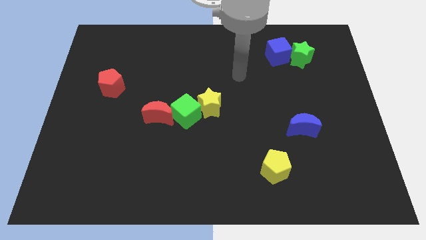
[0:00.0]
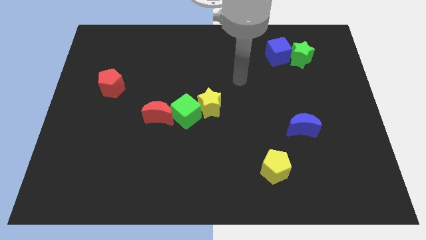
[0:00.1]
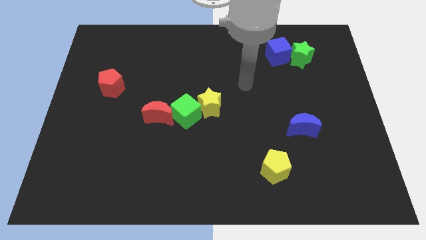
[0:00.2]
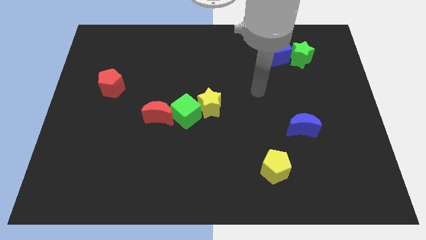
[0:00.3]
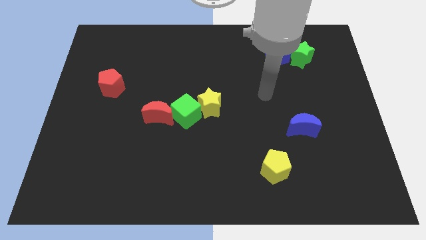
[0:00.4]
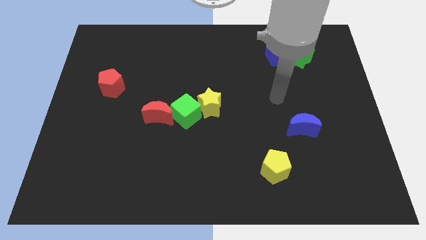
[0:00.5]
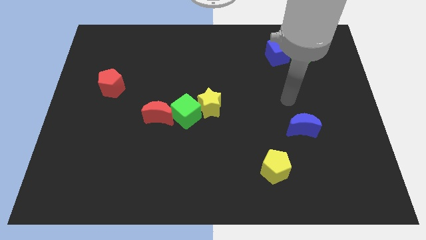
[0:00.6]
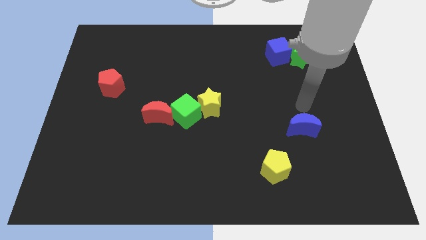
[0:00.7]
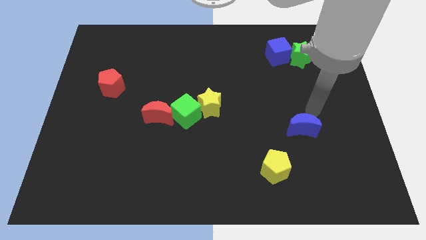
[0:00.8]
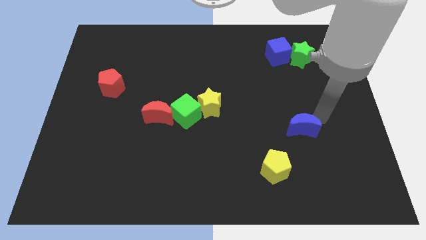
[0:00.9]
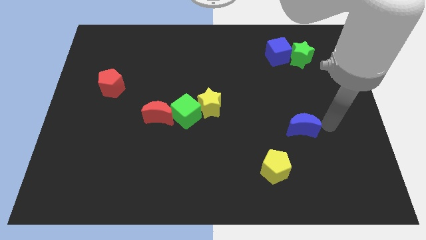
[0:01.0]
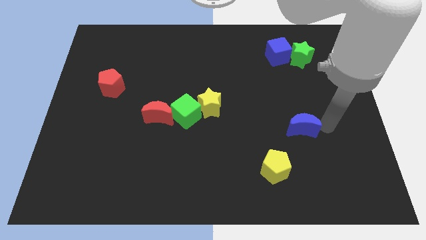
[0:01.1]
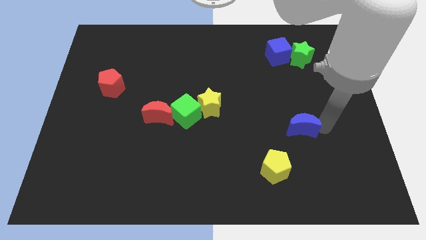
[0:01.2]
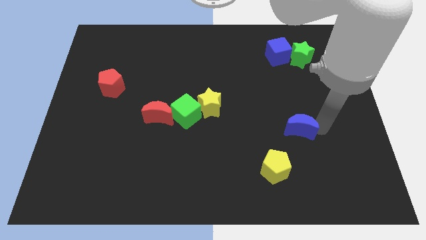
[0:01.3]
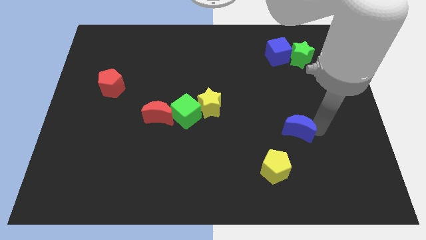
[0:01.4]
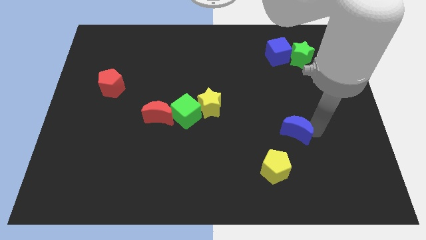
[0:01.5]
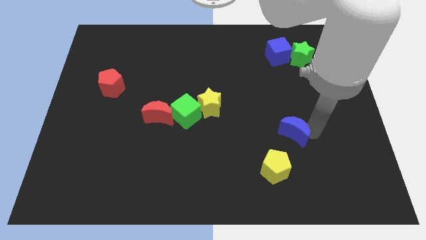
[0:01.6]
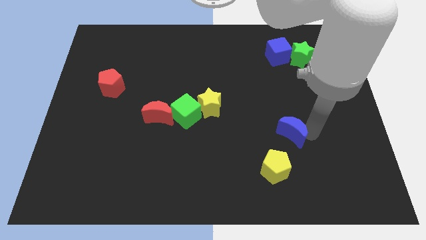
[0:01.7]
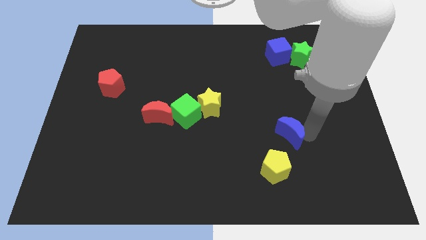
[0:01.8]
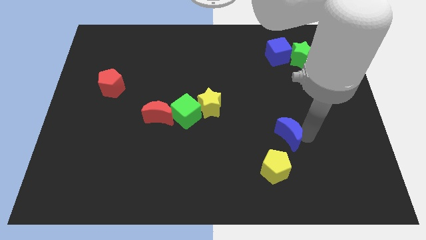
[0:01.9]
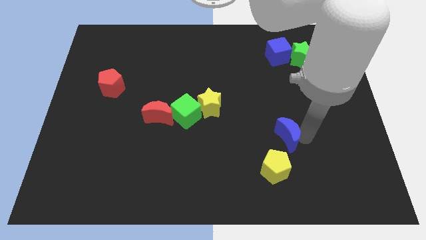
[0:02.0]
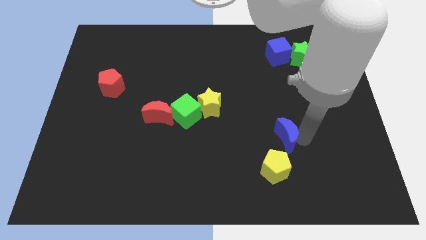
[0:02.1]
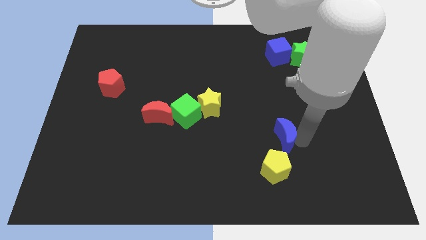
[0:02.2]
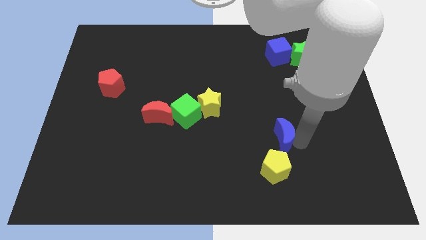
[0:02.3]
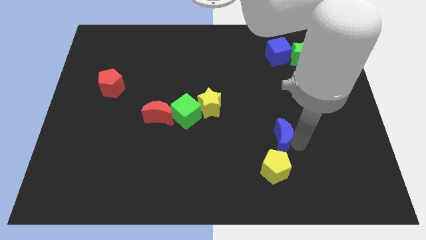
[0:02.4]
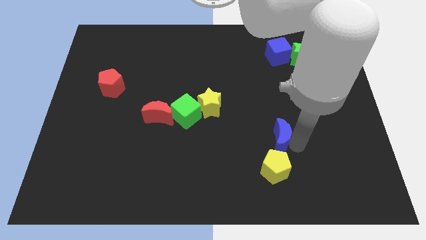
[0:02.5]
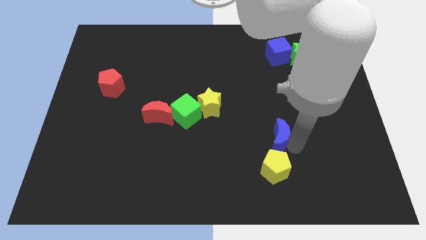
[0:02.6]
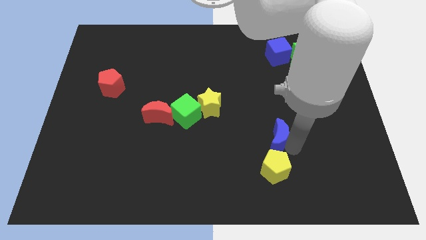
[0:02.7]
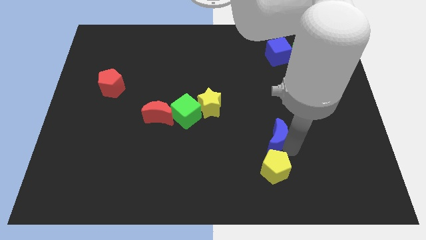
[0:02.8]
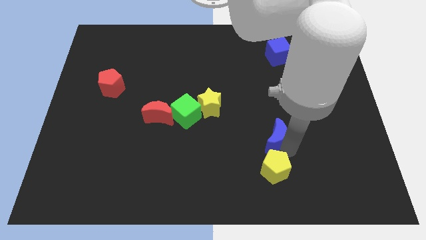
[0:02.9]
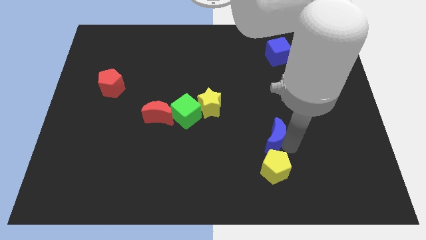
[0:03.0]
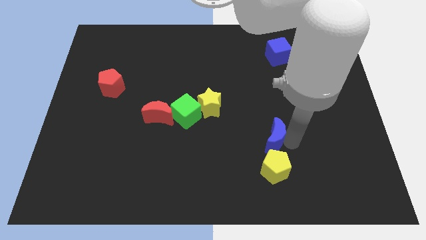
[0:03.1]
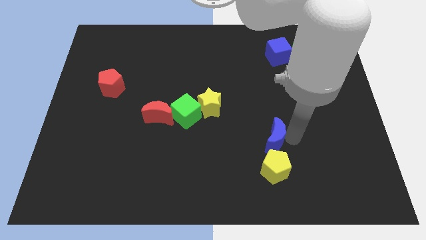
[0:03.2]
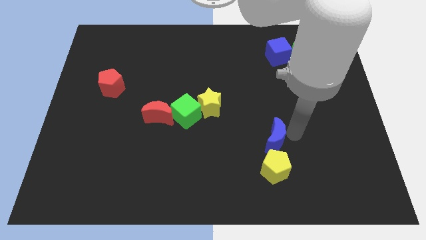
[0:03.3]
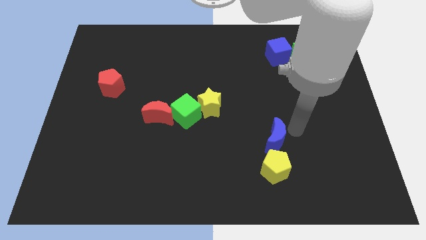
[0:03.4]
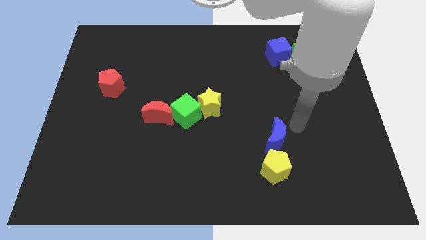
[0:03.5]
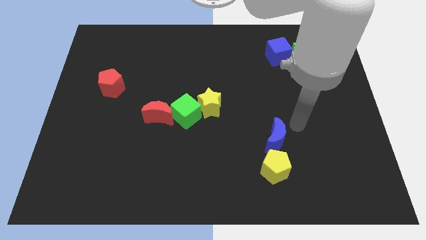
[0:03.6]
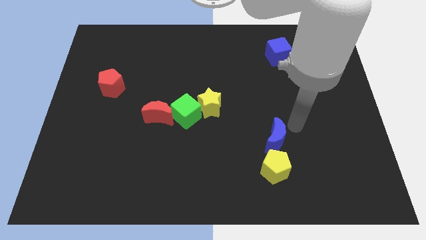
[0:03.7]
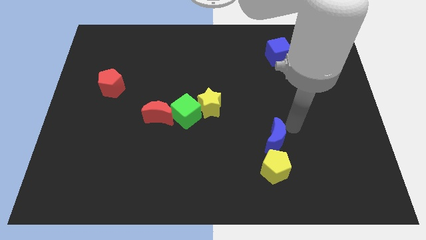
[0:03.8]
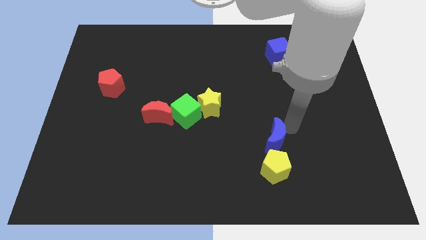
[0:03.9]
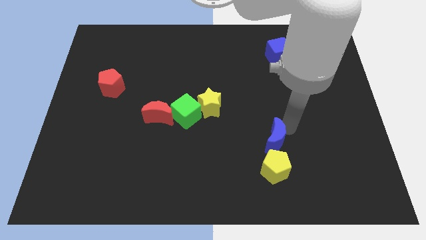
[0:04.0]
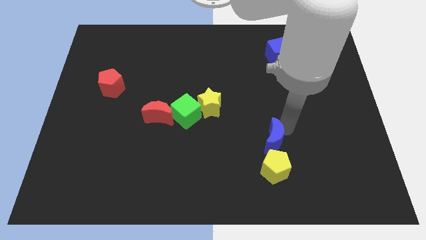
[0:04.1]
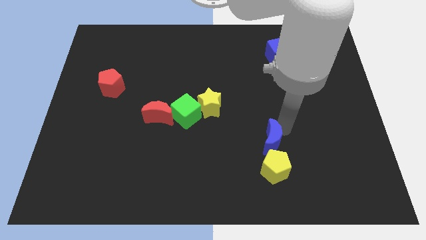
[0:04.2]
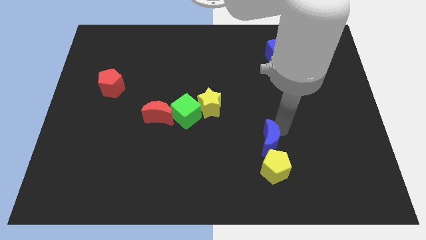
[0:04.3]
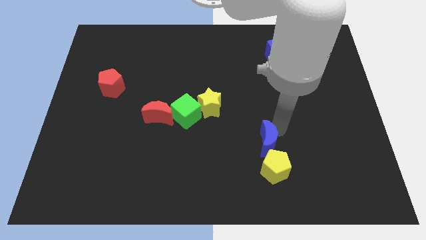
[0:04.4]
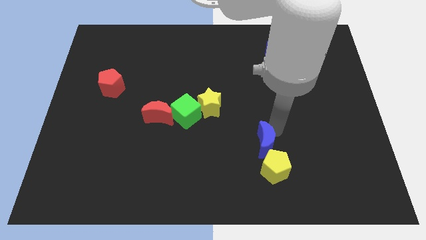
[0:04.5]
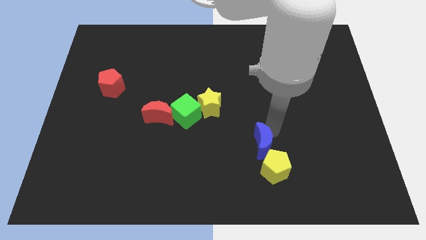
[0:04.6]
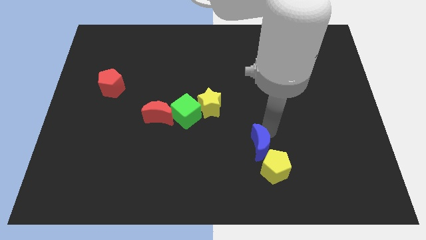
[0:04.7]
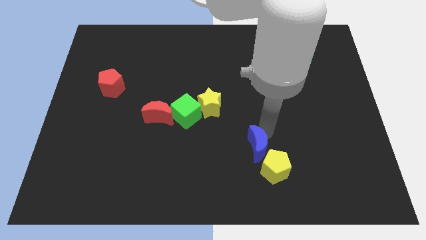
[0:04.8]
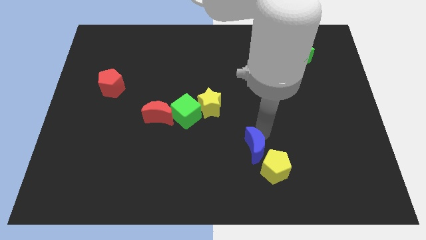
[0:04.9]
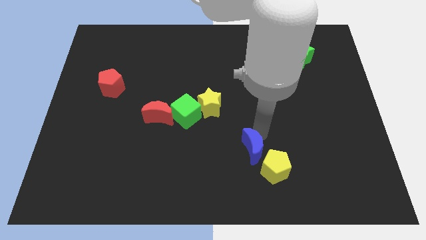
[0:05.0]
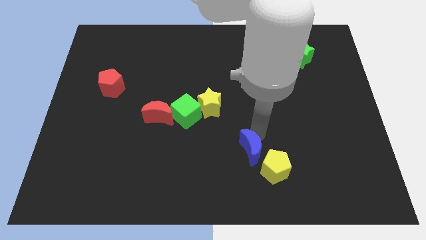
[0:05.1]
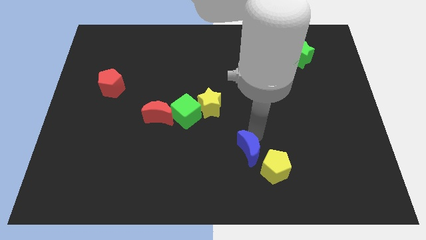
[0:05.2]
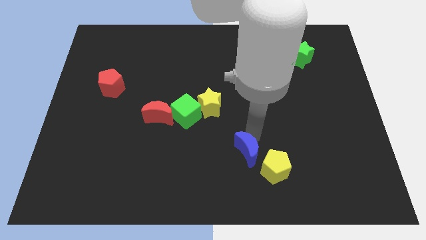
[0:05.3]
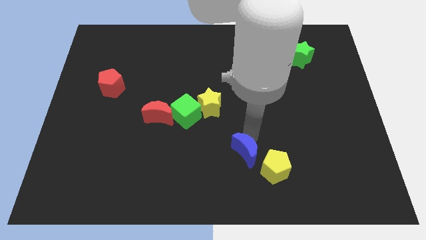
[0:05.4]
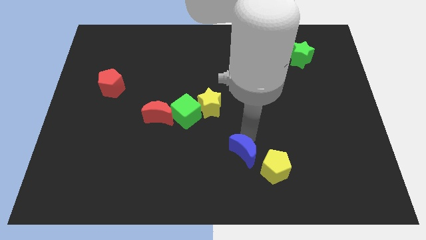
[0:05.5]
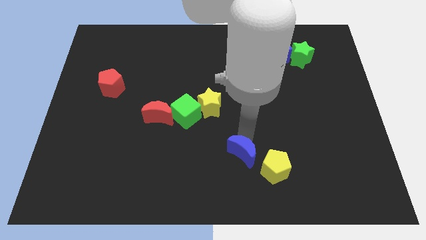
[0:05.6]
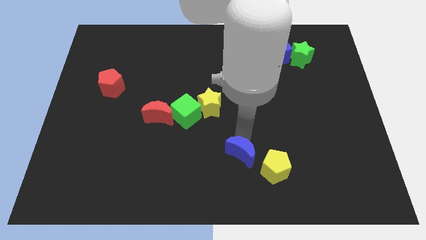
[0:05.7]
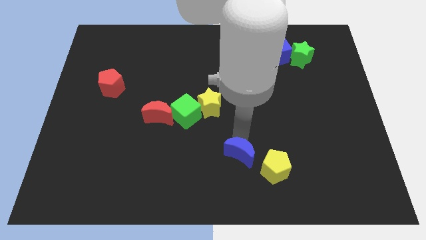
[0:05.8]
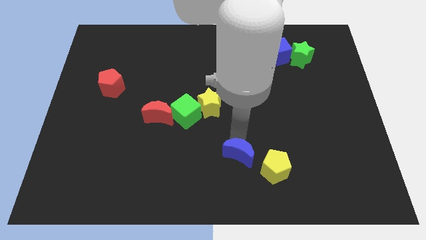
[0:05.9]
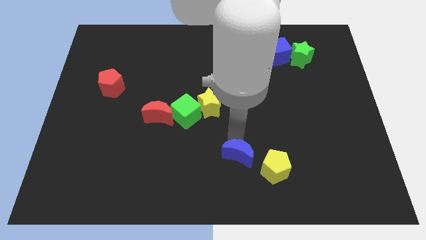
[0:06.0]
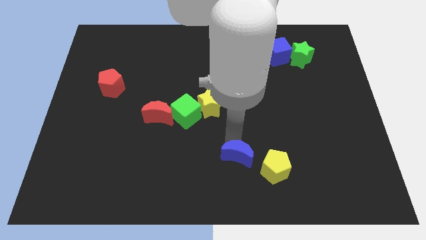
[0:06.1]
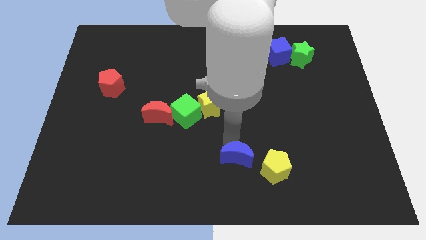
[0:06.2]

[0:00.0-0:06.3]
put the blue moon to the bottom side
